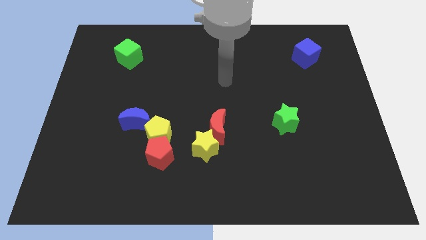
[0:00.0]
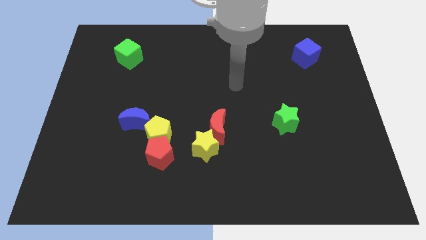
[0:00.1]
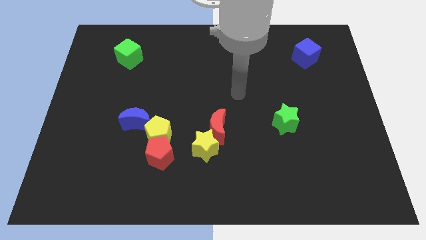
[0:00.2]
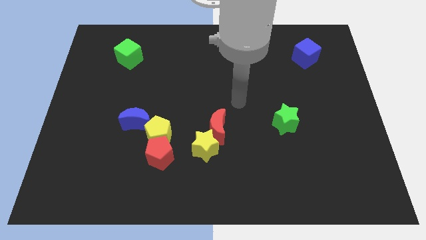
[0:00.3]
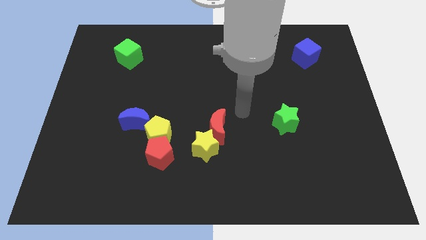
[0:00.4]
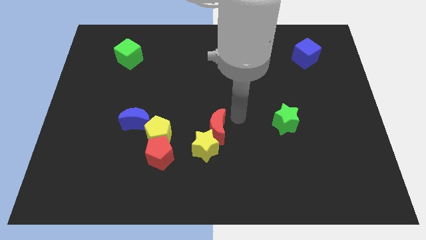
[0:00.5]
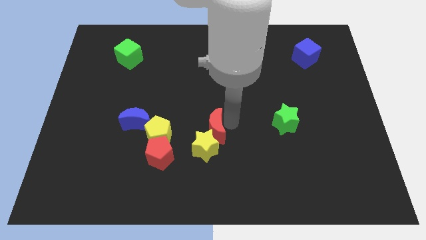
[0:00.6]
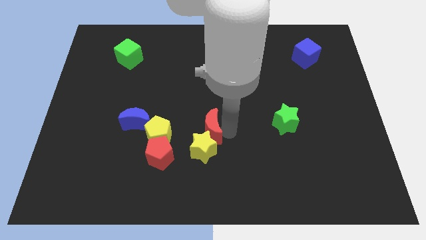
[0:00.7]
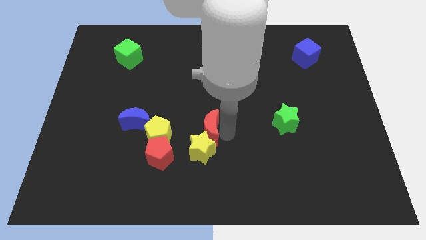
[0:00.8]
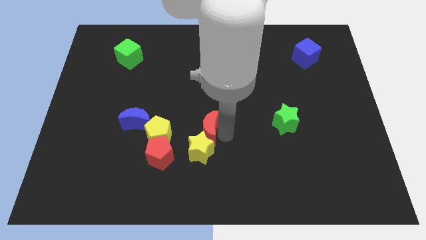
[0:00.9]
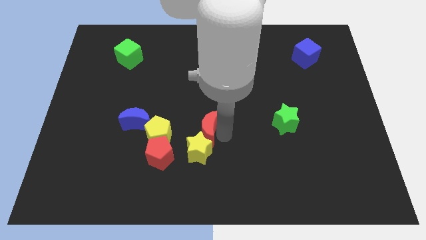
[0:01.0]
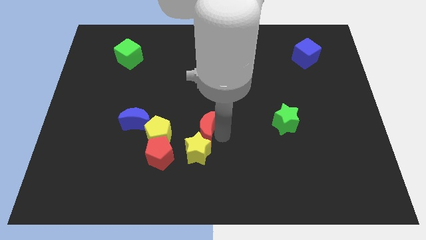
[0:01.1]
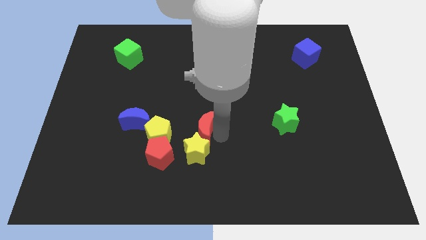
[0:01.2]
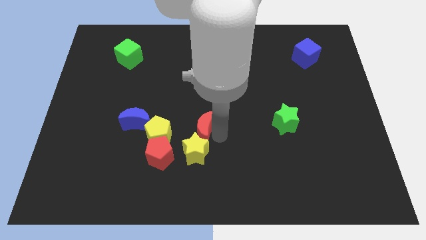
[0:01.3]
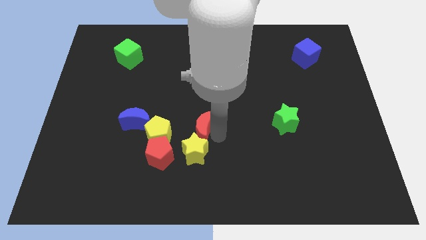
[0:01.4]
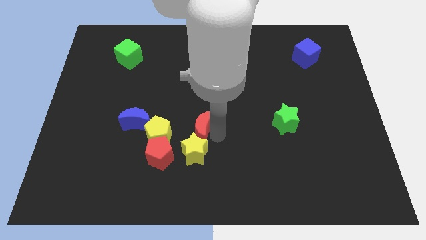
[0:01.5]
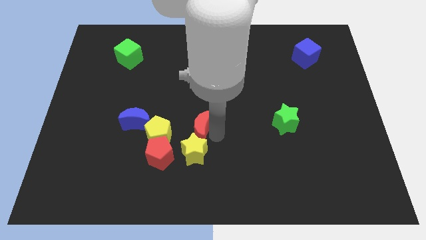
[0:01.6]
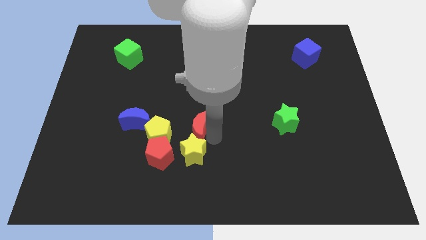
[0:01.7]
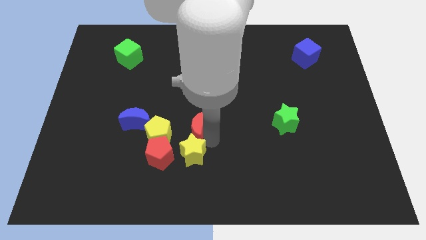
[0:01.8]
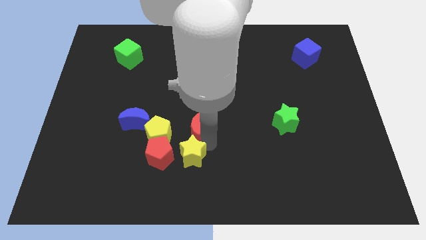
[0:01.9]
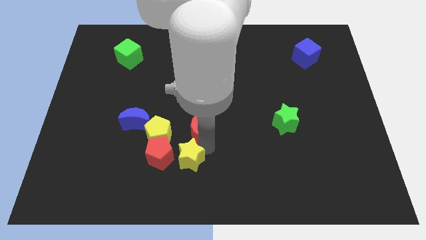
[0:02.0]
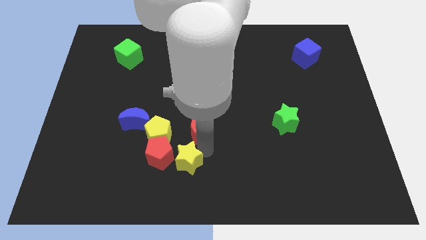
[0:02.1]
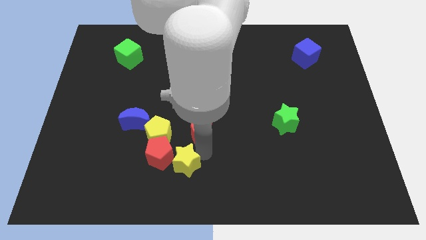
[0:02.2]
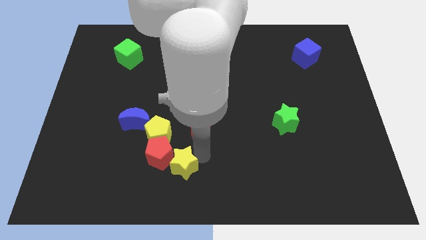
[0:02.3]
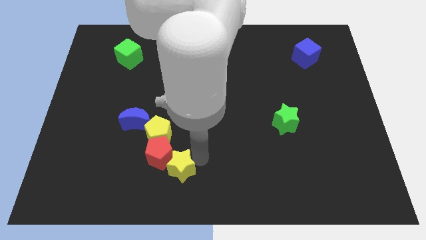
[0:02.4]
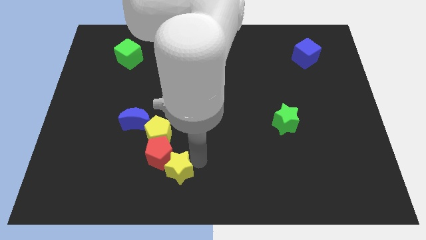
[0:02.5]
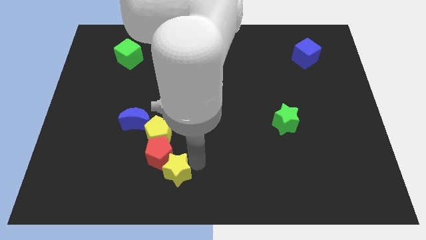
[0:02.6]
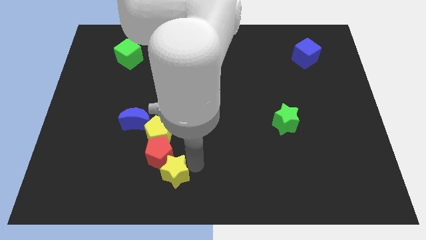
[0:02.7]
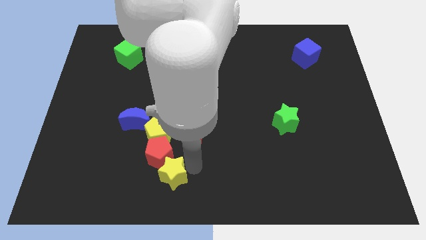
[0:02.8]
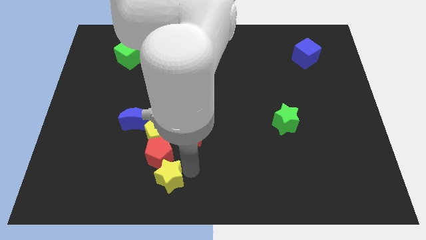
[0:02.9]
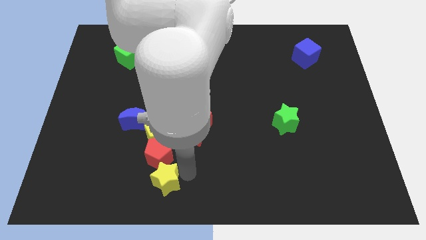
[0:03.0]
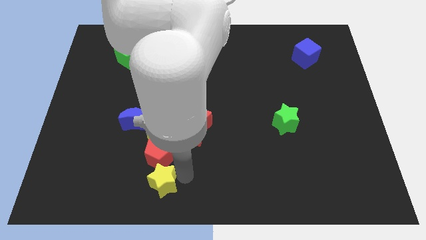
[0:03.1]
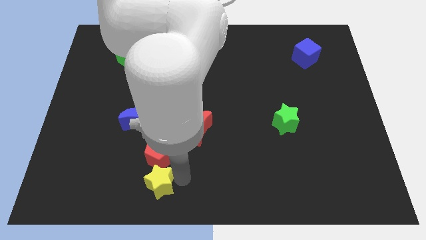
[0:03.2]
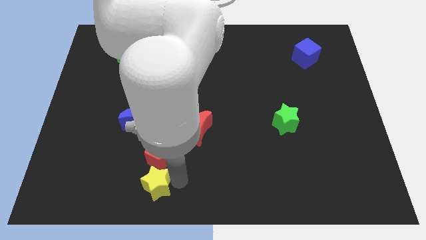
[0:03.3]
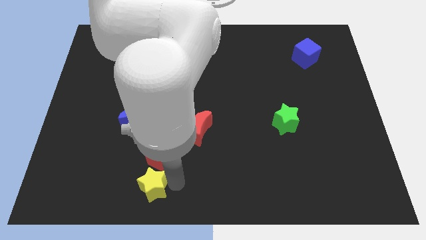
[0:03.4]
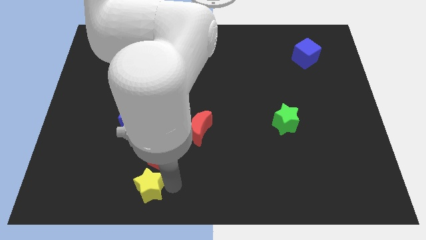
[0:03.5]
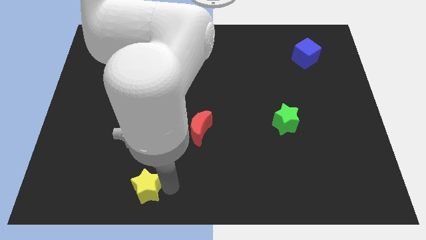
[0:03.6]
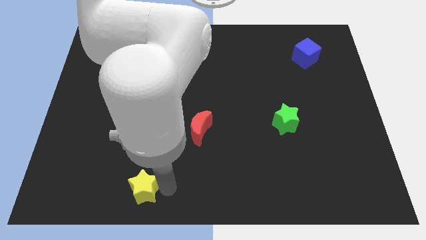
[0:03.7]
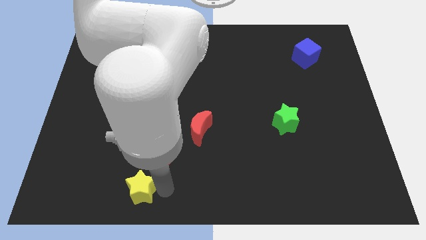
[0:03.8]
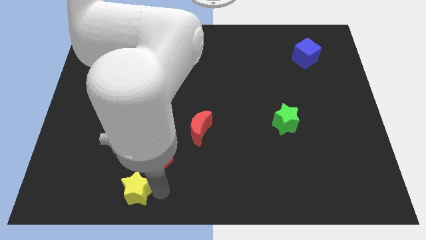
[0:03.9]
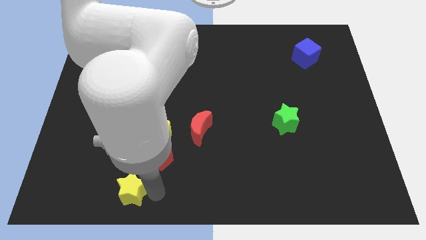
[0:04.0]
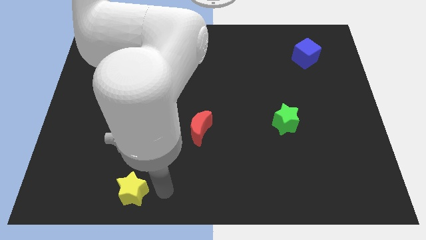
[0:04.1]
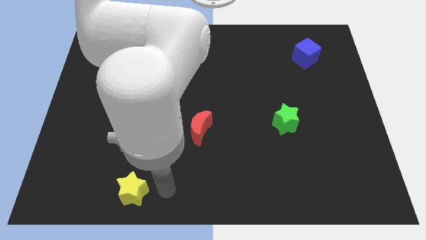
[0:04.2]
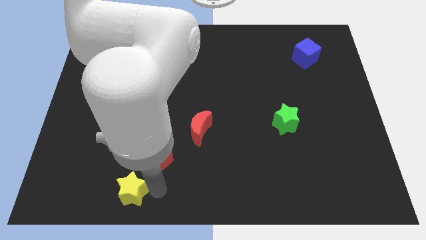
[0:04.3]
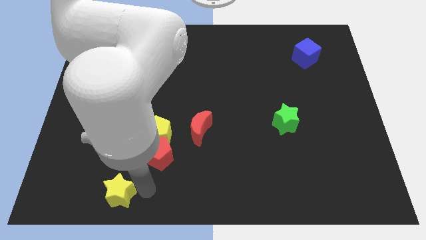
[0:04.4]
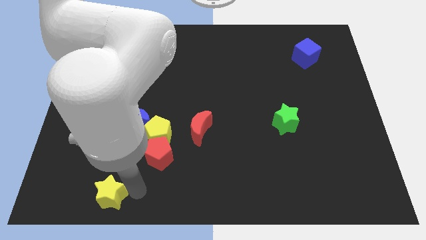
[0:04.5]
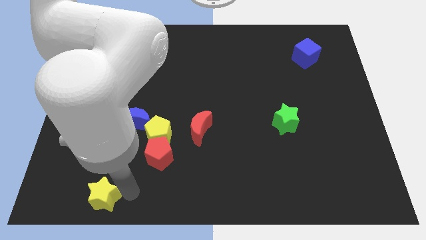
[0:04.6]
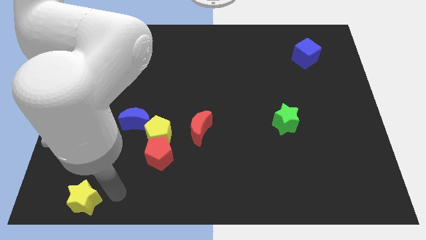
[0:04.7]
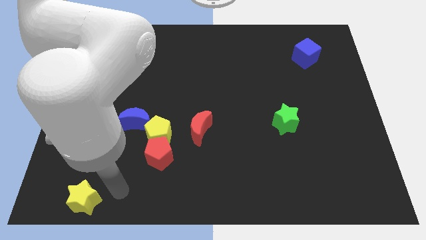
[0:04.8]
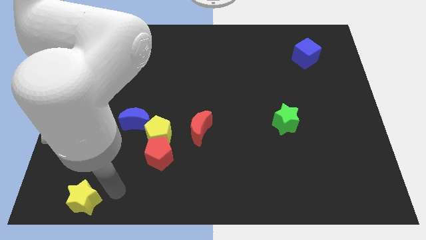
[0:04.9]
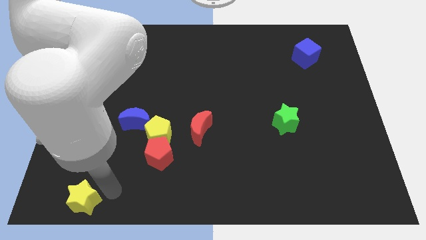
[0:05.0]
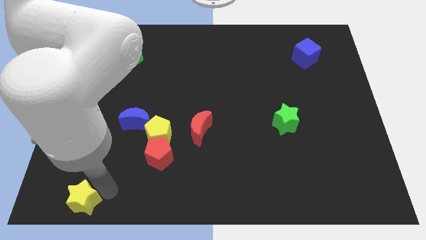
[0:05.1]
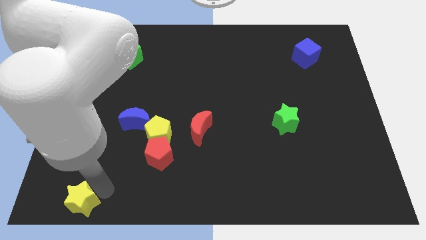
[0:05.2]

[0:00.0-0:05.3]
slide the yellow star to the bottom left

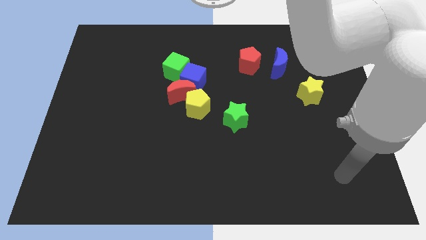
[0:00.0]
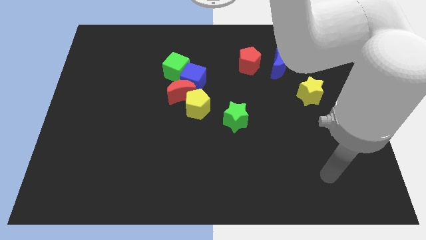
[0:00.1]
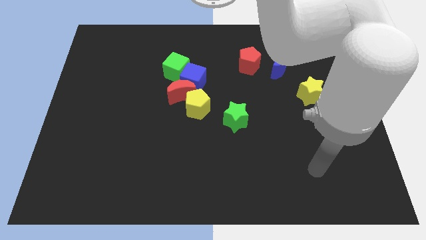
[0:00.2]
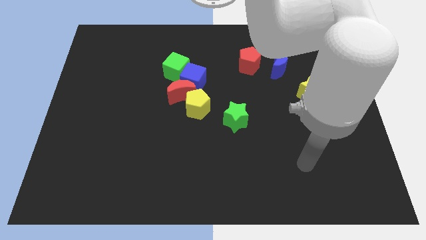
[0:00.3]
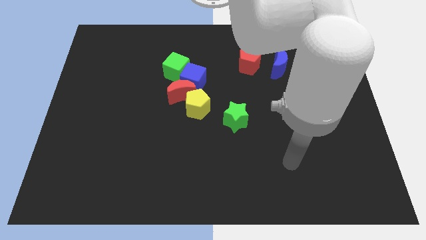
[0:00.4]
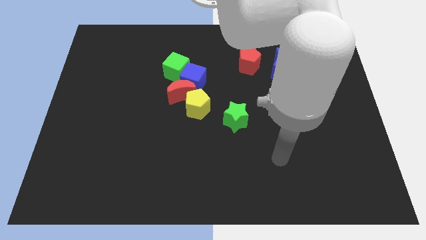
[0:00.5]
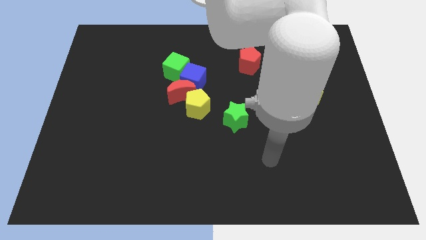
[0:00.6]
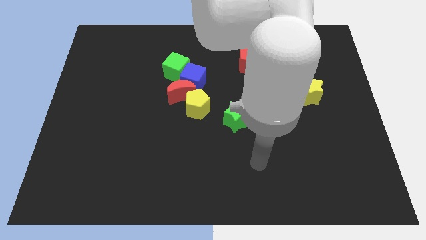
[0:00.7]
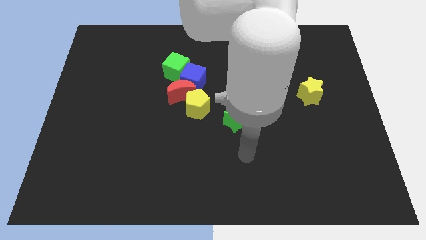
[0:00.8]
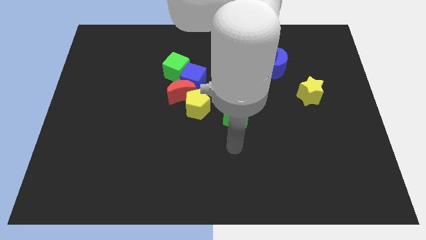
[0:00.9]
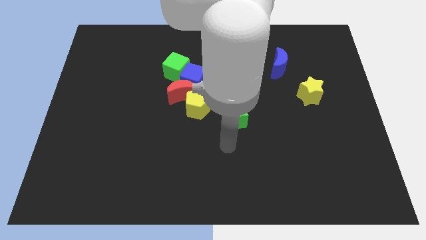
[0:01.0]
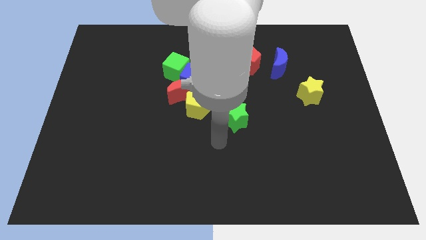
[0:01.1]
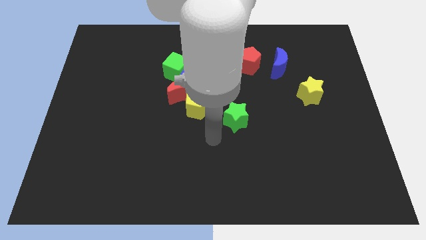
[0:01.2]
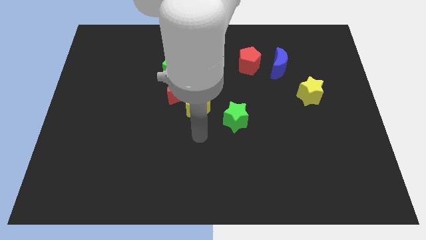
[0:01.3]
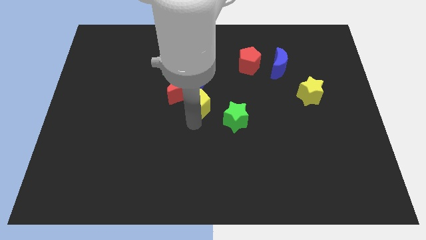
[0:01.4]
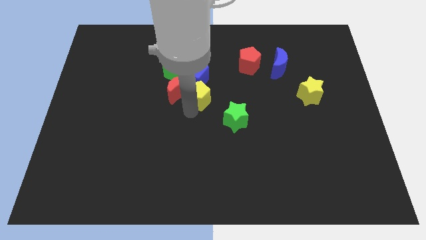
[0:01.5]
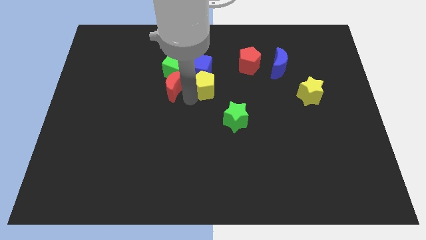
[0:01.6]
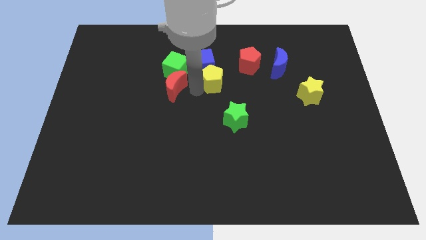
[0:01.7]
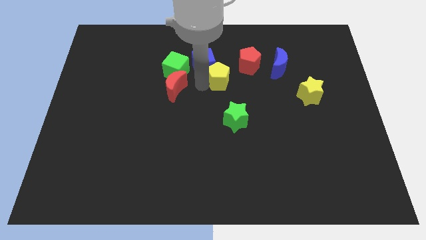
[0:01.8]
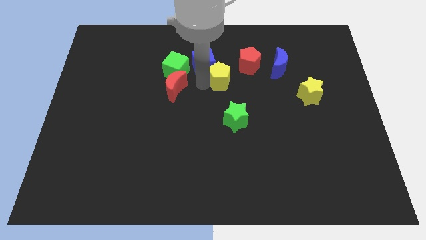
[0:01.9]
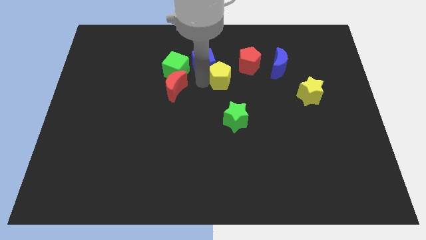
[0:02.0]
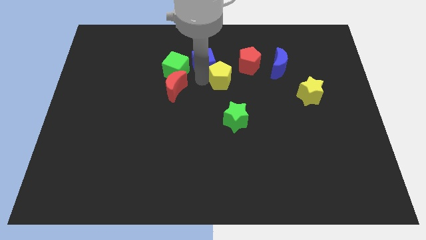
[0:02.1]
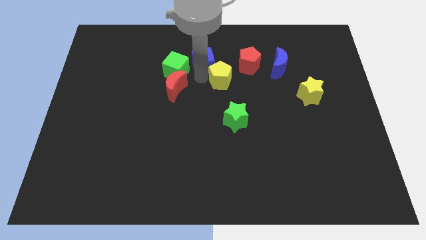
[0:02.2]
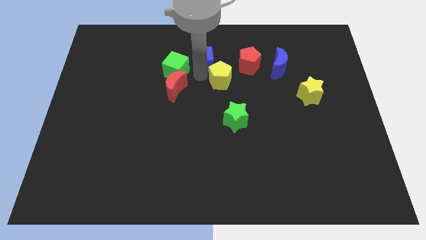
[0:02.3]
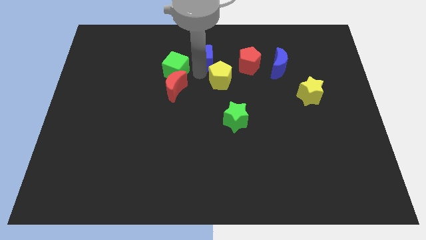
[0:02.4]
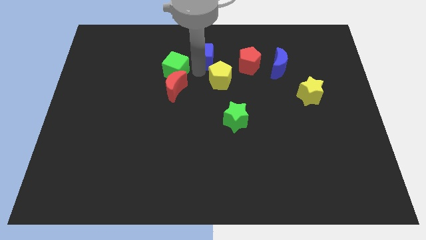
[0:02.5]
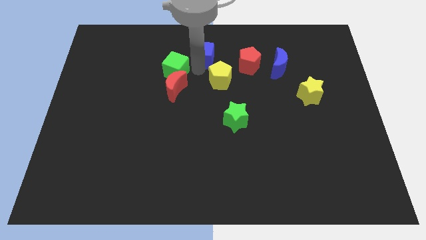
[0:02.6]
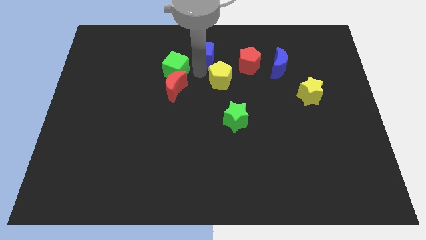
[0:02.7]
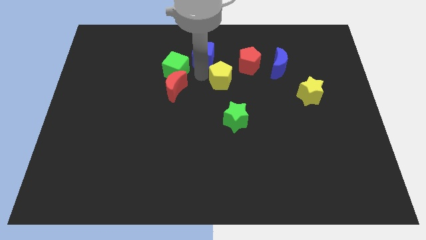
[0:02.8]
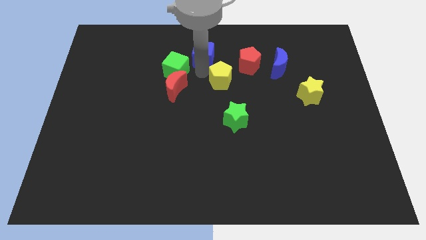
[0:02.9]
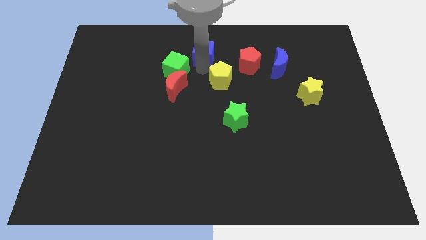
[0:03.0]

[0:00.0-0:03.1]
put the blue cube to the top side
